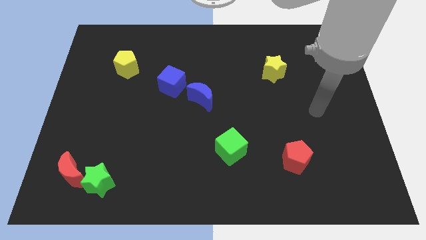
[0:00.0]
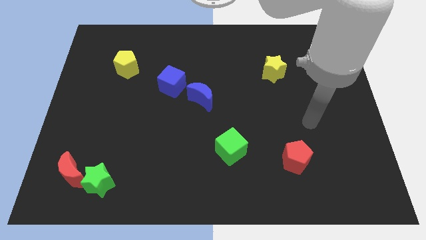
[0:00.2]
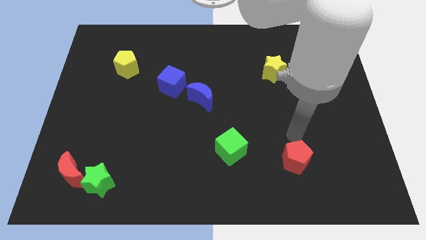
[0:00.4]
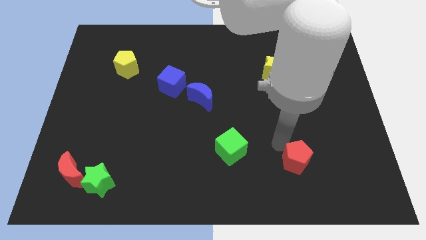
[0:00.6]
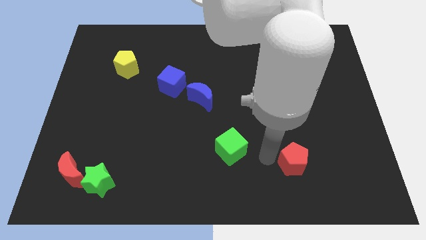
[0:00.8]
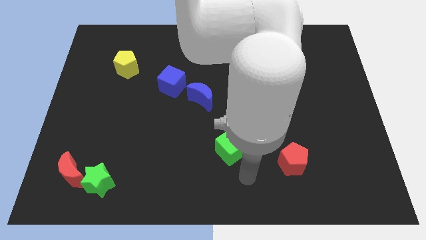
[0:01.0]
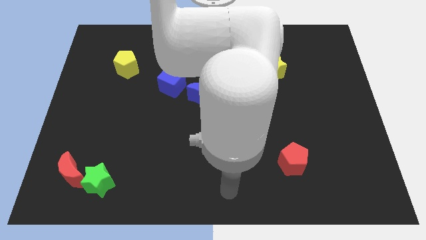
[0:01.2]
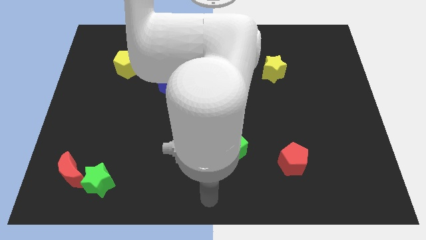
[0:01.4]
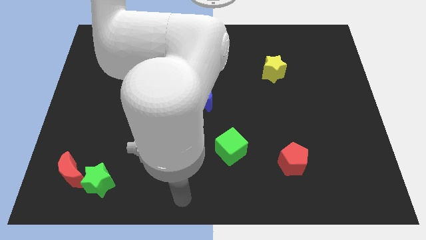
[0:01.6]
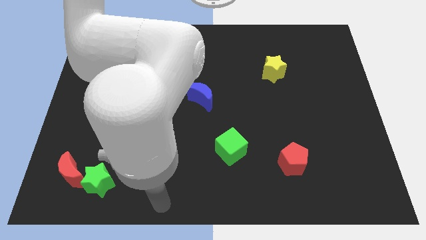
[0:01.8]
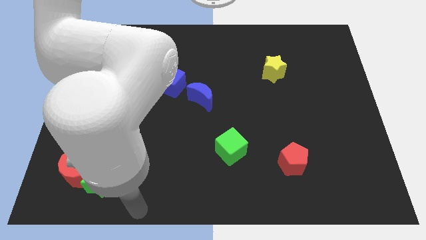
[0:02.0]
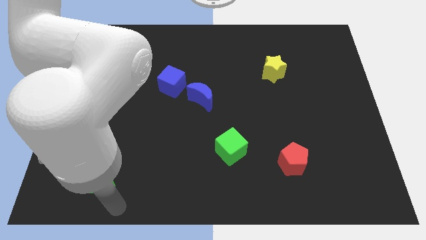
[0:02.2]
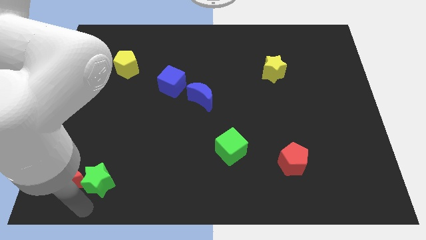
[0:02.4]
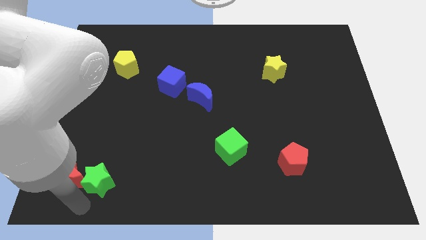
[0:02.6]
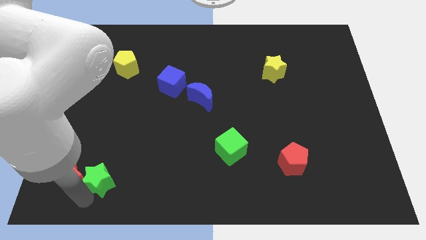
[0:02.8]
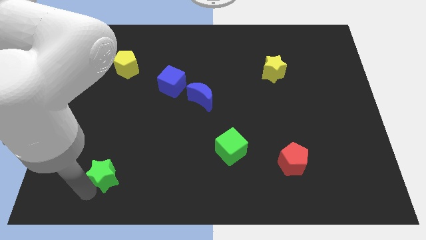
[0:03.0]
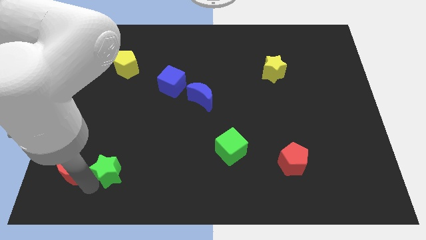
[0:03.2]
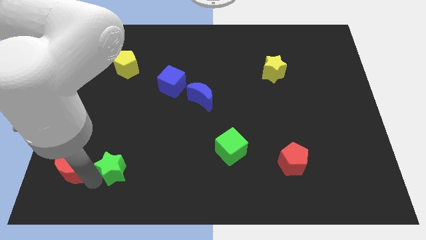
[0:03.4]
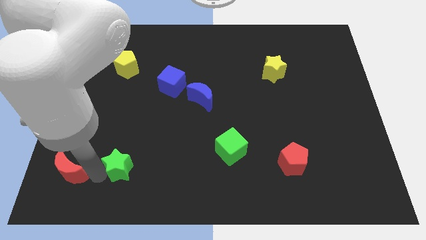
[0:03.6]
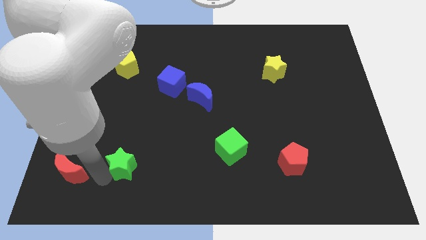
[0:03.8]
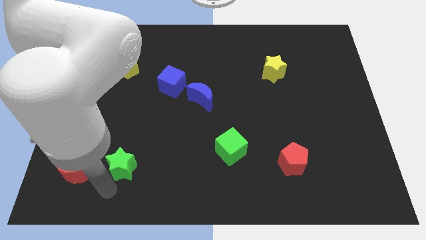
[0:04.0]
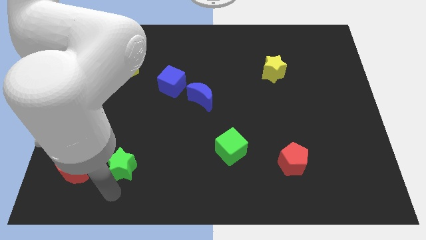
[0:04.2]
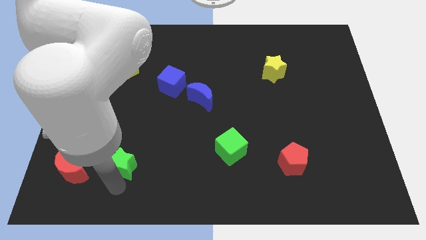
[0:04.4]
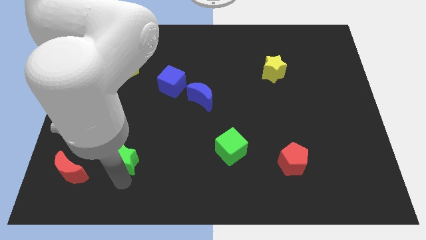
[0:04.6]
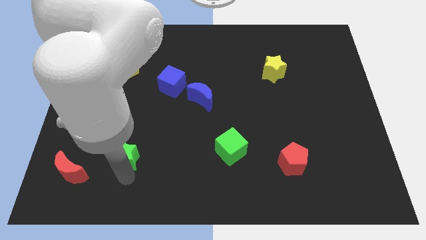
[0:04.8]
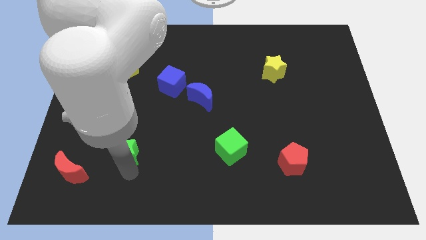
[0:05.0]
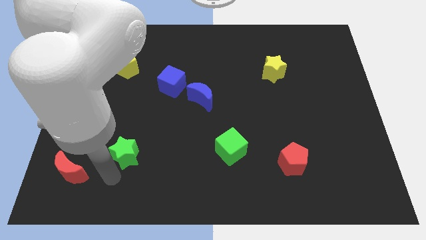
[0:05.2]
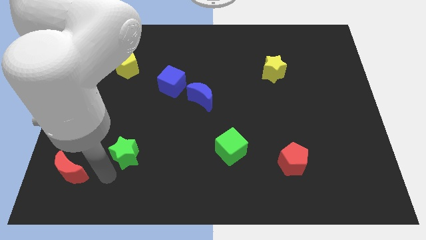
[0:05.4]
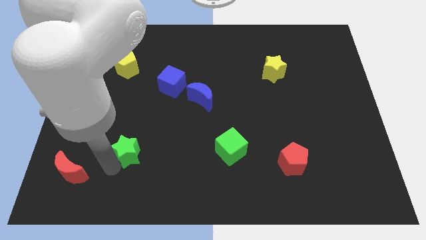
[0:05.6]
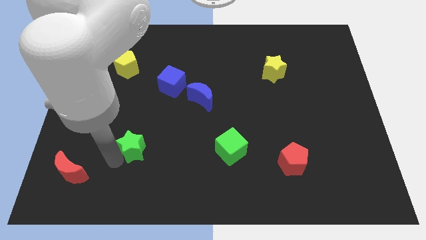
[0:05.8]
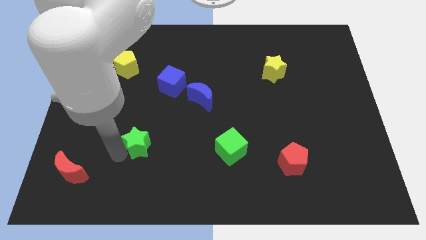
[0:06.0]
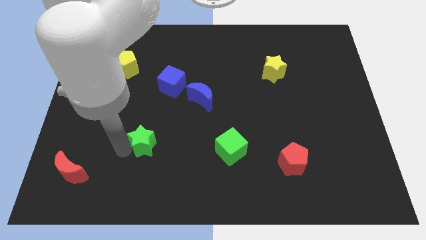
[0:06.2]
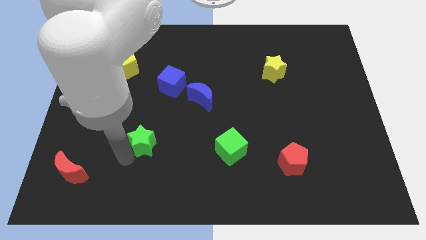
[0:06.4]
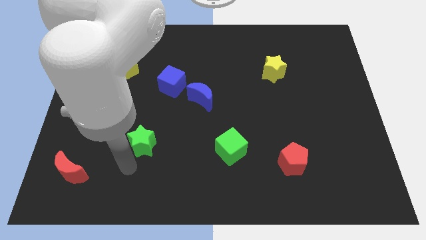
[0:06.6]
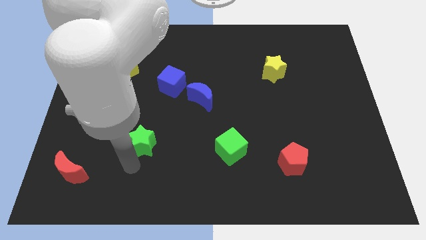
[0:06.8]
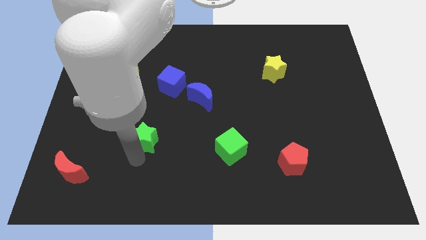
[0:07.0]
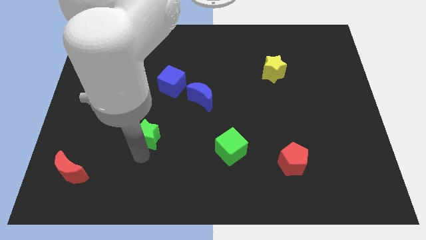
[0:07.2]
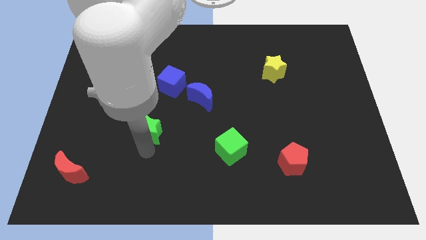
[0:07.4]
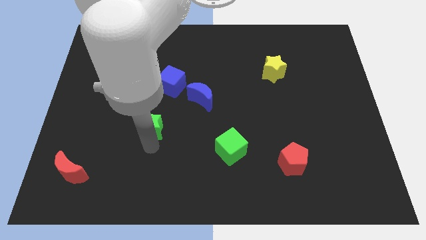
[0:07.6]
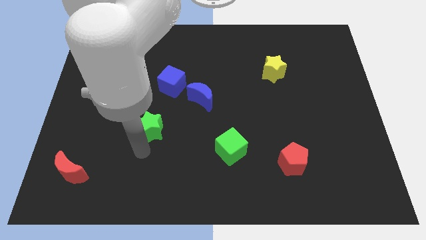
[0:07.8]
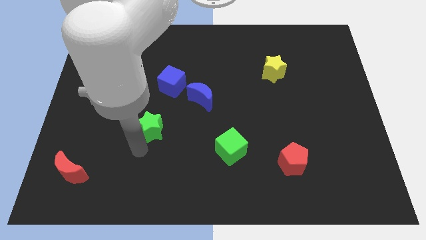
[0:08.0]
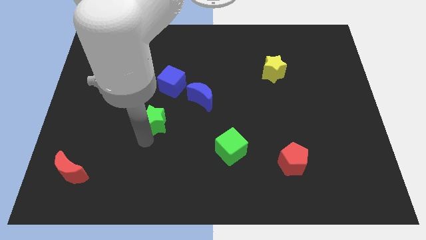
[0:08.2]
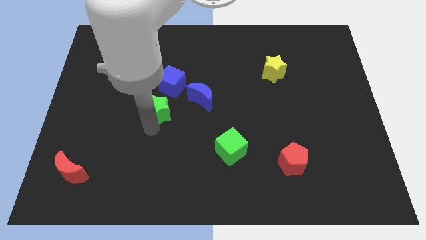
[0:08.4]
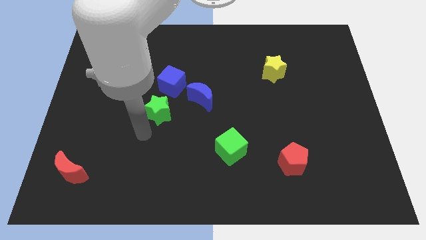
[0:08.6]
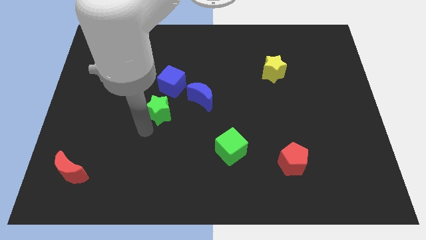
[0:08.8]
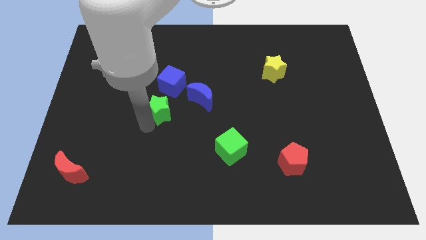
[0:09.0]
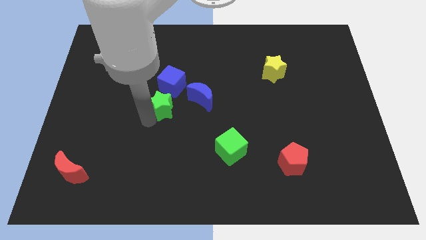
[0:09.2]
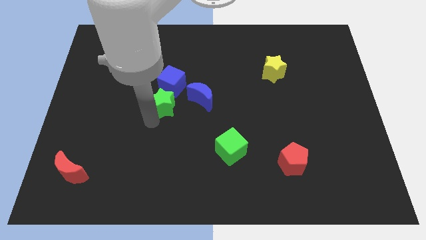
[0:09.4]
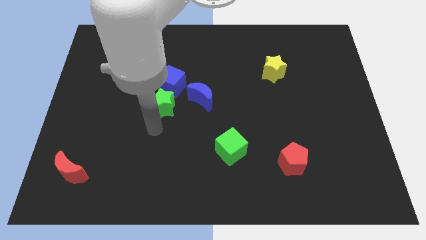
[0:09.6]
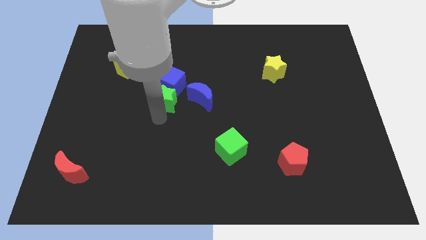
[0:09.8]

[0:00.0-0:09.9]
move the green star towards the blue cube

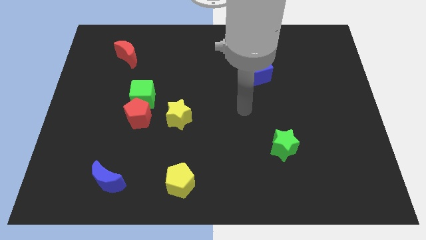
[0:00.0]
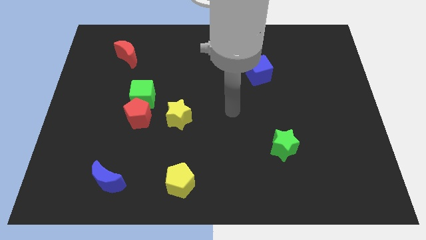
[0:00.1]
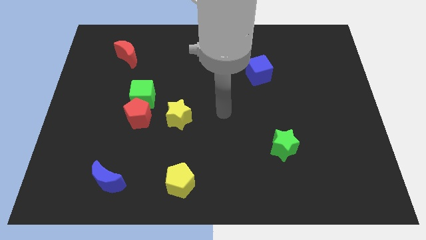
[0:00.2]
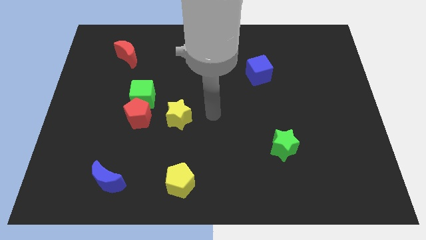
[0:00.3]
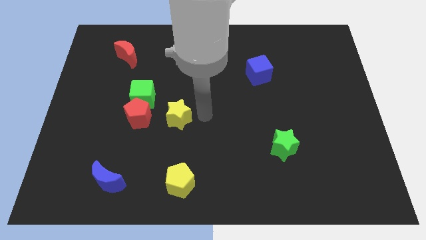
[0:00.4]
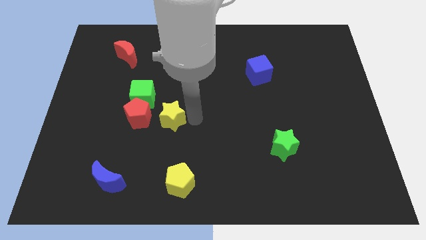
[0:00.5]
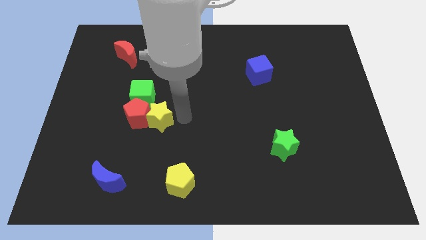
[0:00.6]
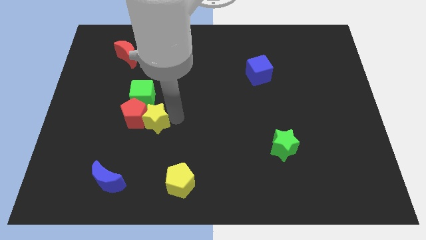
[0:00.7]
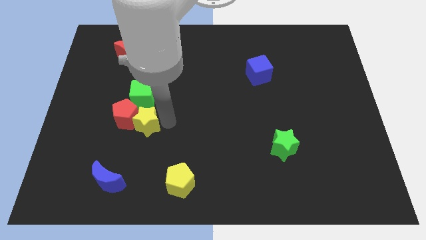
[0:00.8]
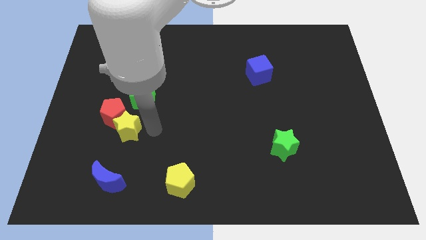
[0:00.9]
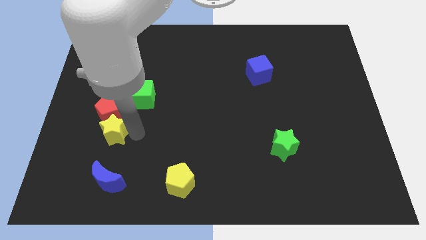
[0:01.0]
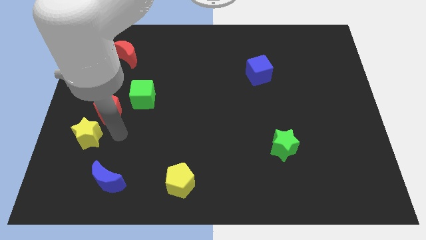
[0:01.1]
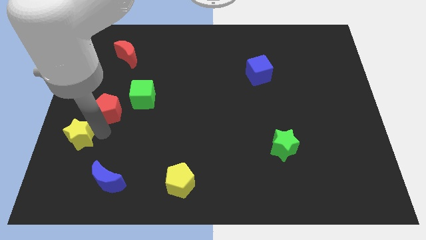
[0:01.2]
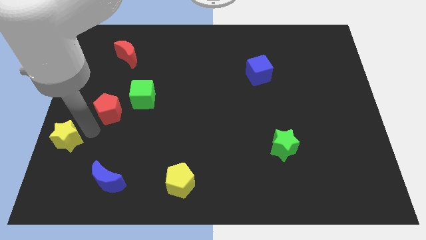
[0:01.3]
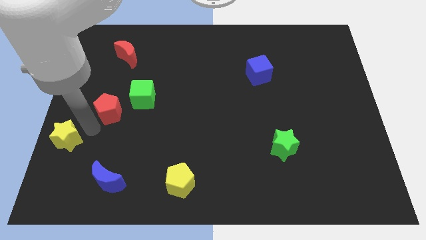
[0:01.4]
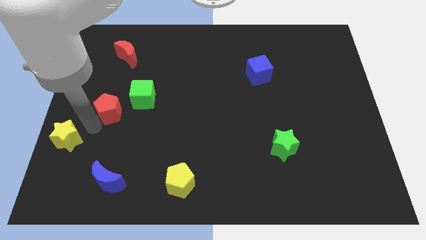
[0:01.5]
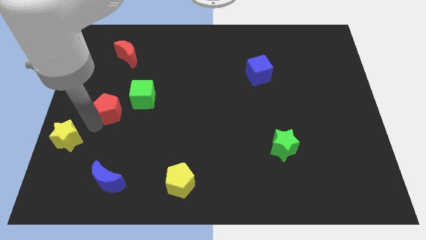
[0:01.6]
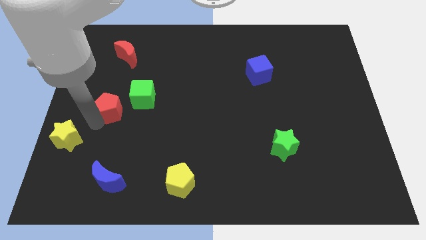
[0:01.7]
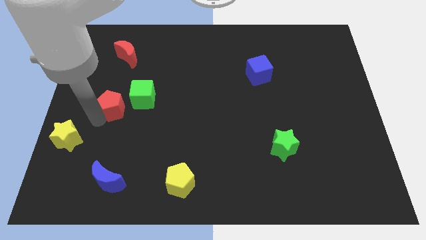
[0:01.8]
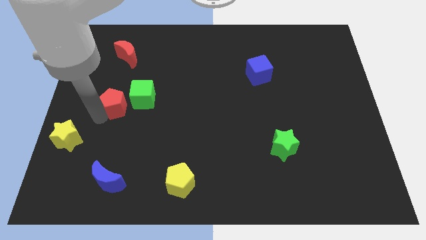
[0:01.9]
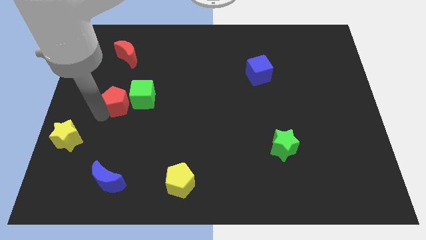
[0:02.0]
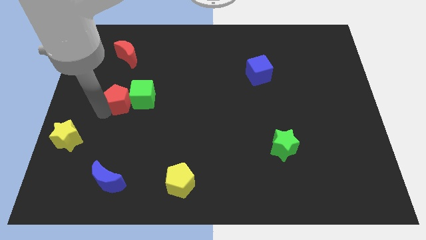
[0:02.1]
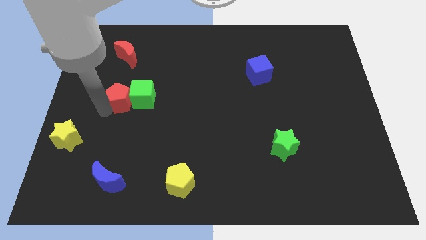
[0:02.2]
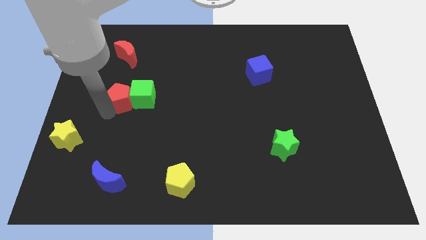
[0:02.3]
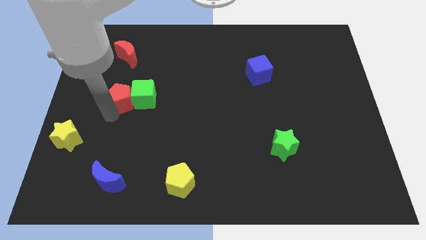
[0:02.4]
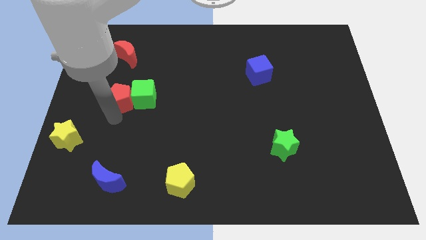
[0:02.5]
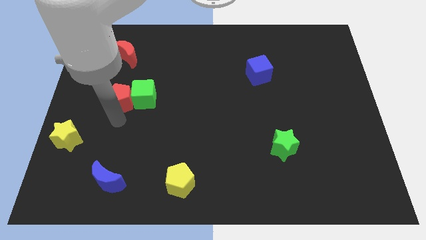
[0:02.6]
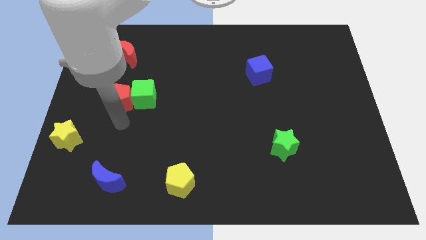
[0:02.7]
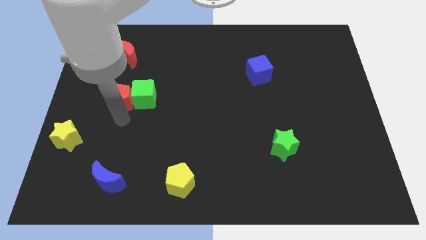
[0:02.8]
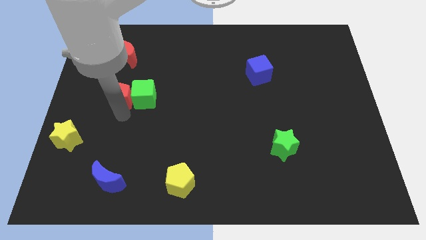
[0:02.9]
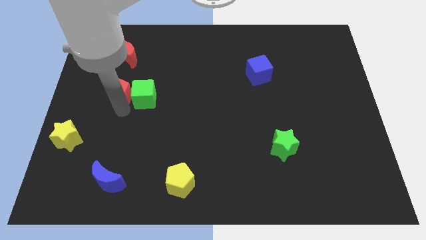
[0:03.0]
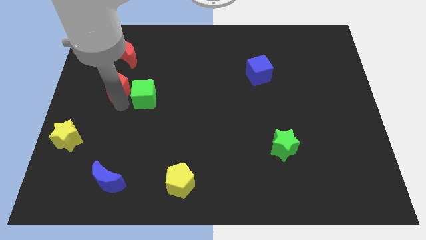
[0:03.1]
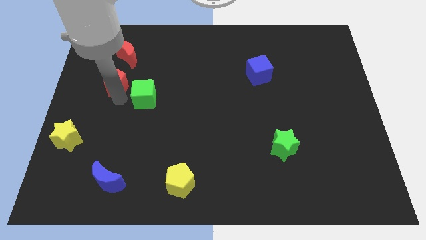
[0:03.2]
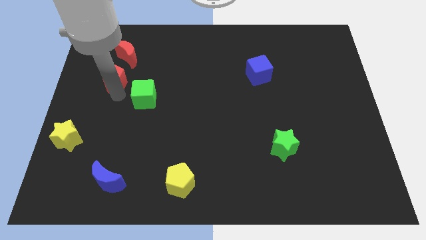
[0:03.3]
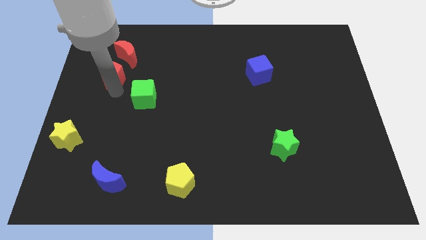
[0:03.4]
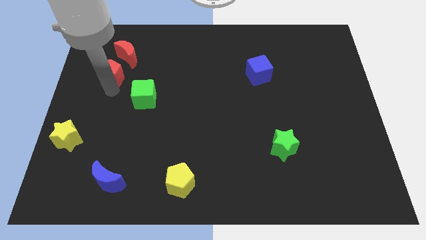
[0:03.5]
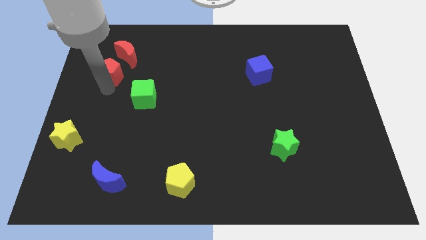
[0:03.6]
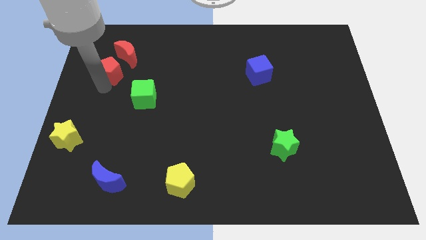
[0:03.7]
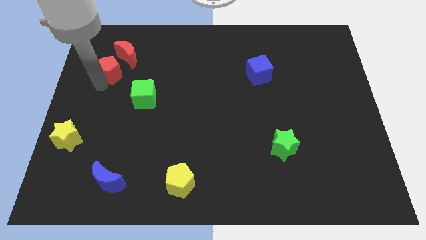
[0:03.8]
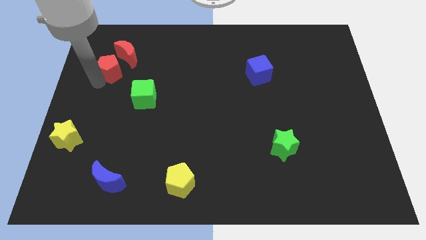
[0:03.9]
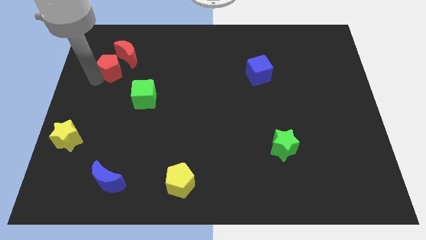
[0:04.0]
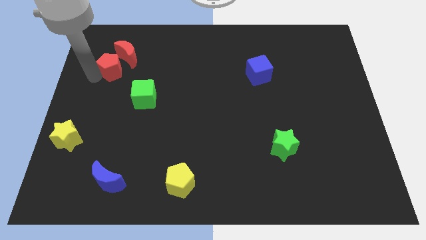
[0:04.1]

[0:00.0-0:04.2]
slide the red pentagon close to the red moon
